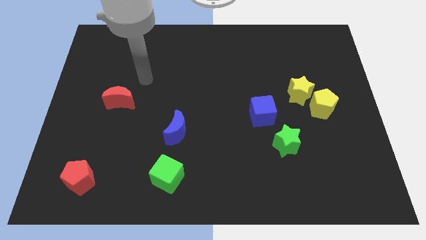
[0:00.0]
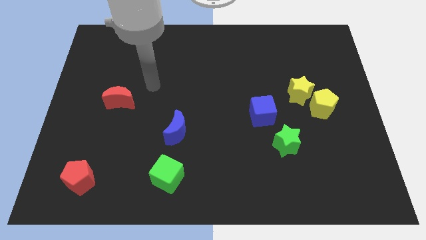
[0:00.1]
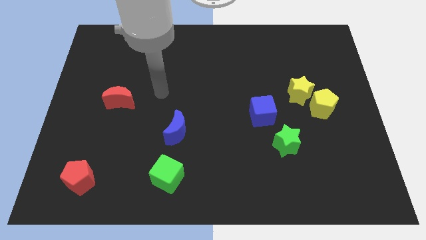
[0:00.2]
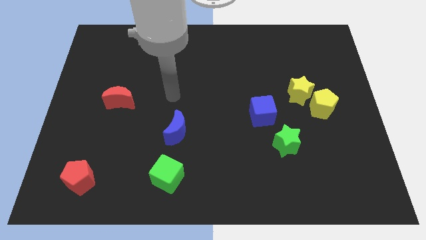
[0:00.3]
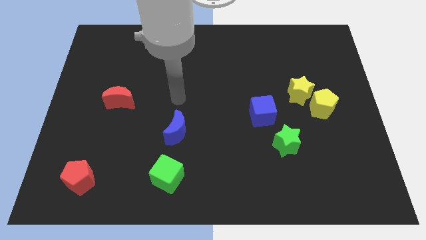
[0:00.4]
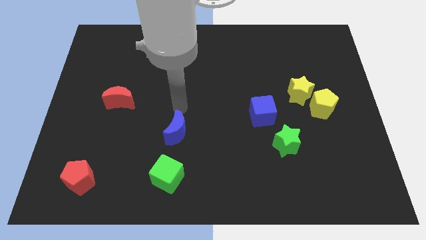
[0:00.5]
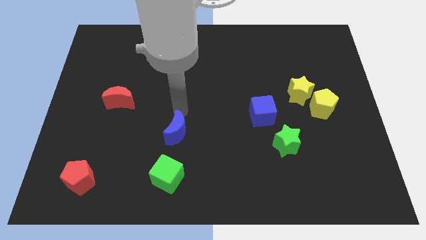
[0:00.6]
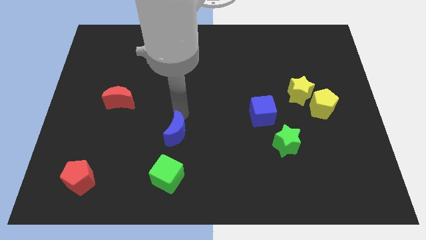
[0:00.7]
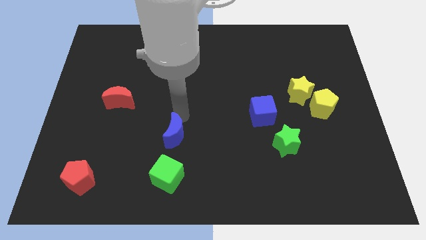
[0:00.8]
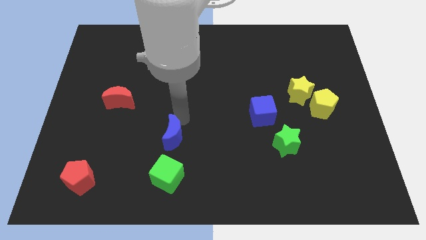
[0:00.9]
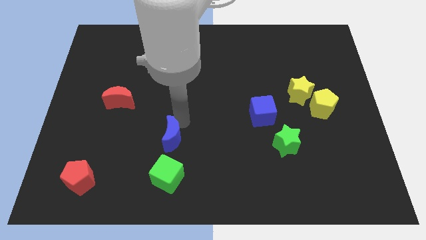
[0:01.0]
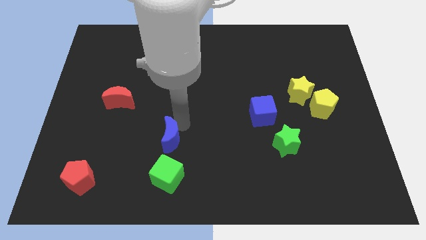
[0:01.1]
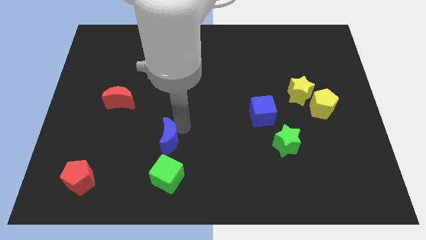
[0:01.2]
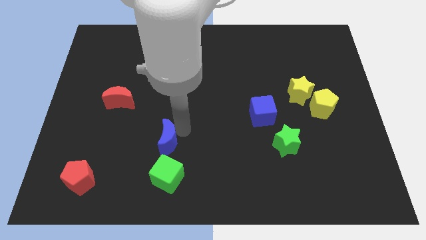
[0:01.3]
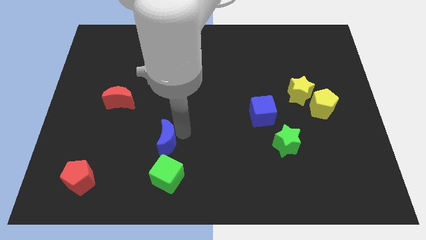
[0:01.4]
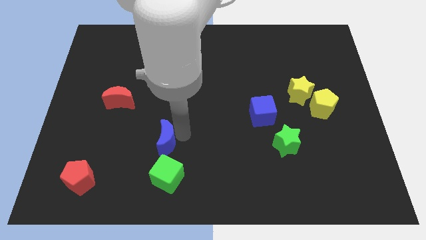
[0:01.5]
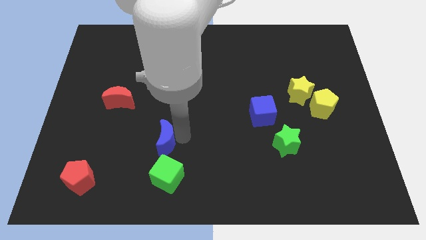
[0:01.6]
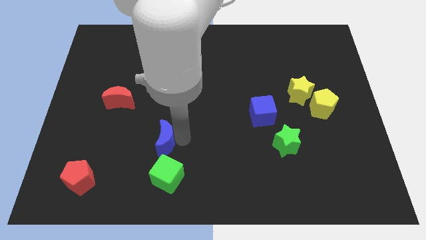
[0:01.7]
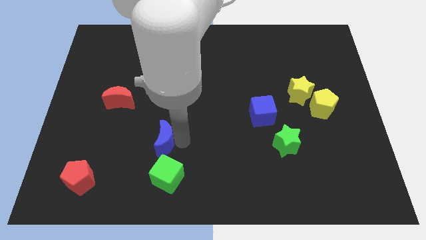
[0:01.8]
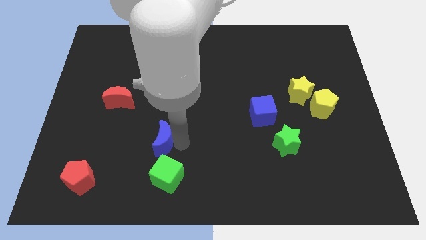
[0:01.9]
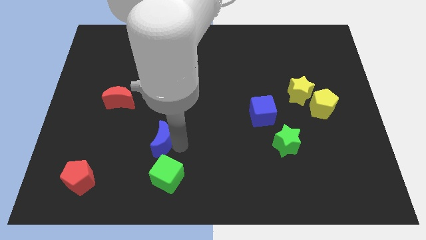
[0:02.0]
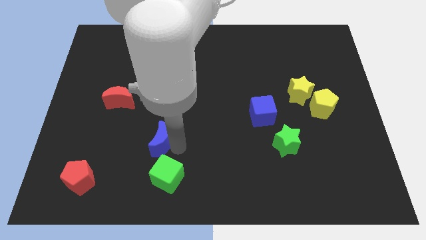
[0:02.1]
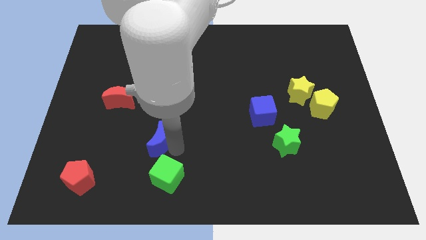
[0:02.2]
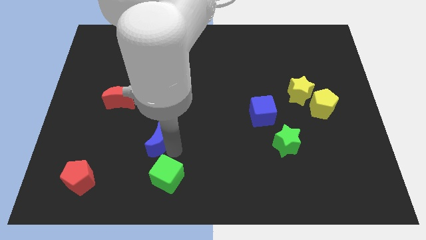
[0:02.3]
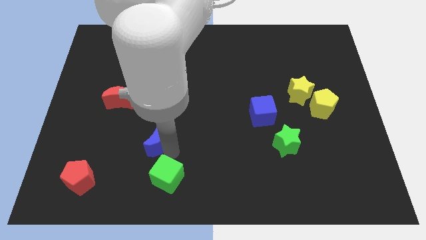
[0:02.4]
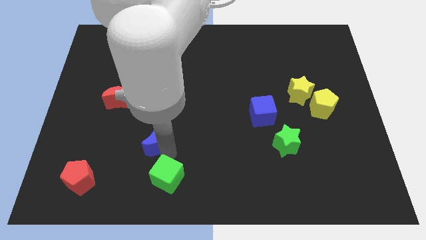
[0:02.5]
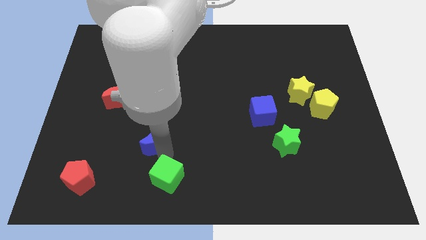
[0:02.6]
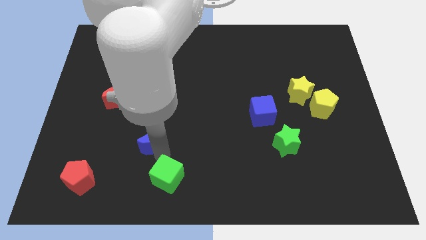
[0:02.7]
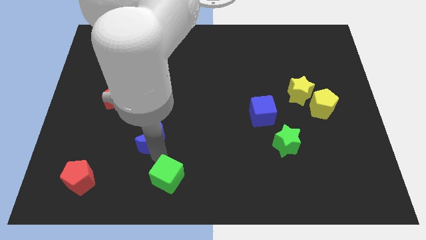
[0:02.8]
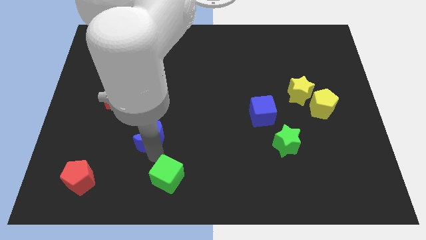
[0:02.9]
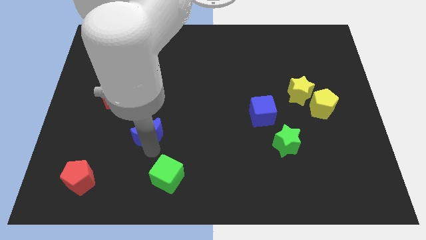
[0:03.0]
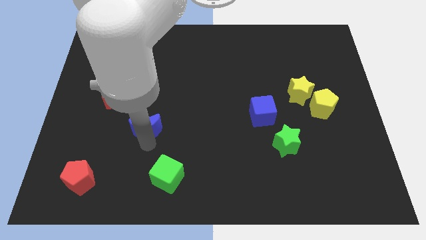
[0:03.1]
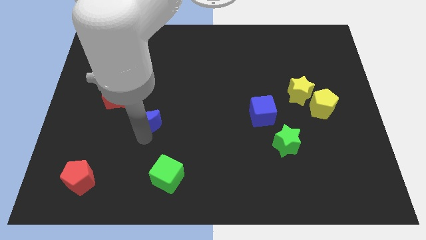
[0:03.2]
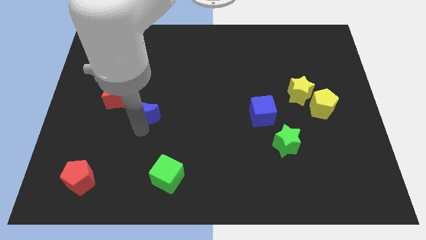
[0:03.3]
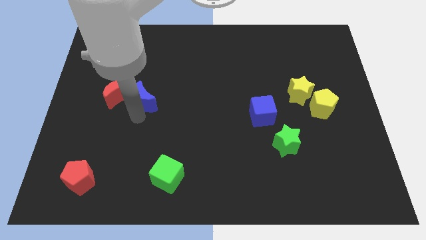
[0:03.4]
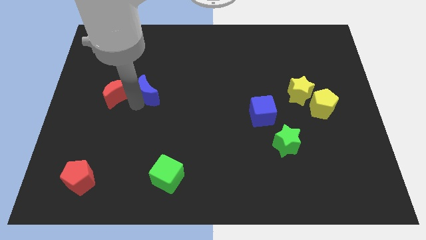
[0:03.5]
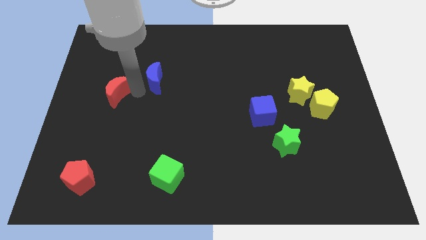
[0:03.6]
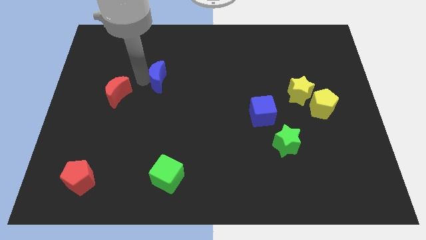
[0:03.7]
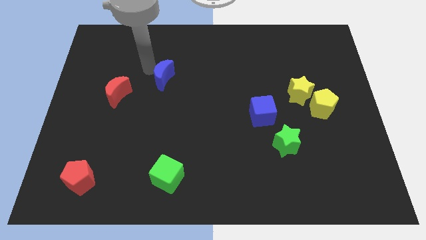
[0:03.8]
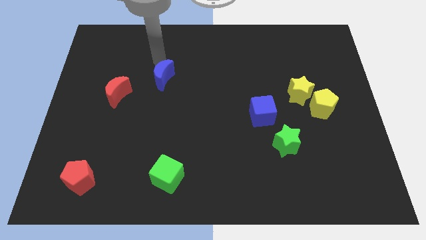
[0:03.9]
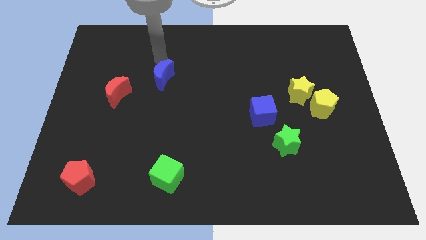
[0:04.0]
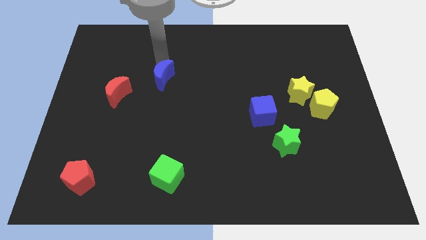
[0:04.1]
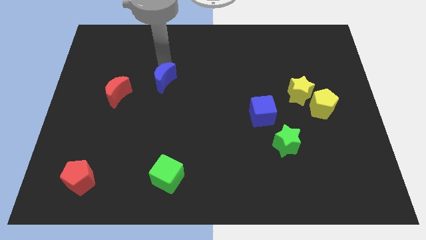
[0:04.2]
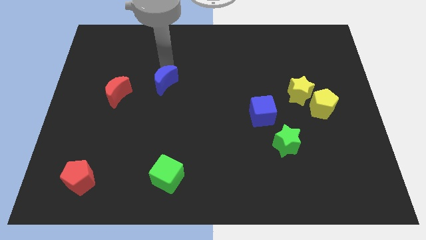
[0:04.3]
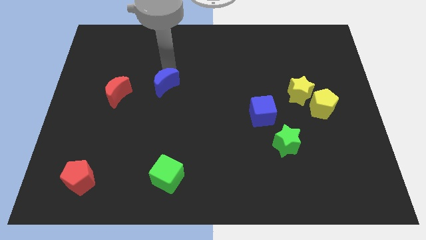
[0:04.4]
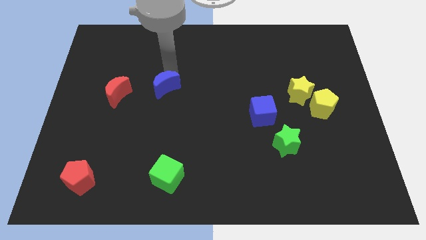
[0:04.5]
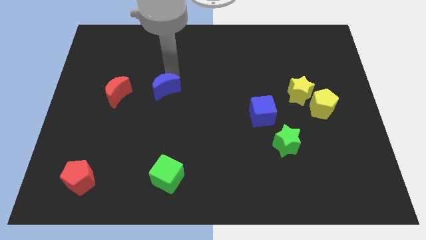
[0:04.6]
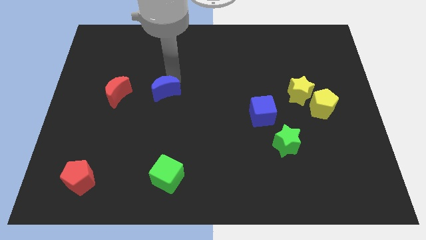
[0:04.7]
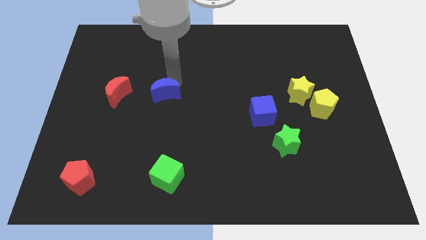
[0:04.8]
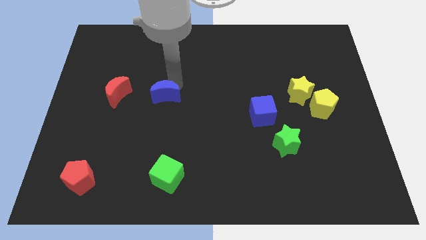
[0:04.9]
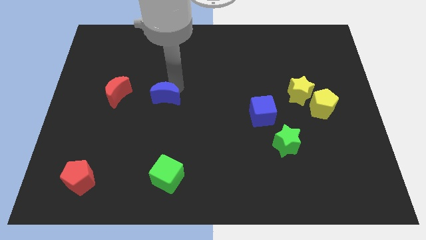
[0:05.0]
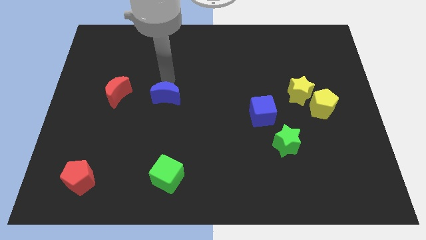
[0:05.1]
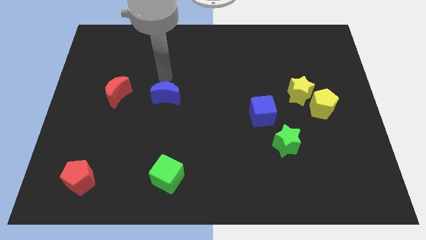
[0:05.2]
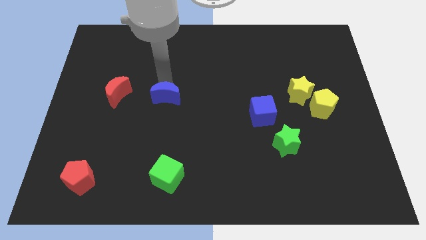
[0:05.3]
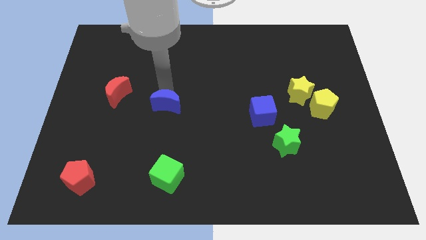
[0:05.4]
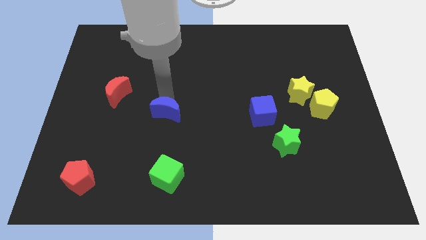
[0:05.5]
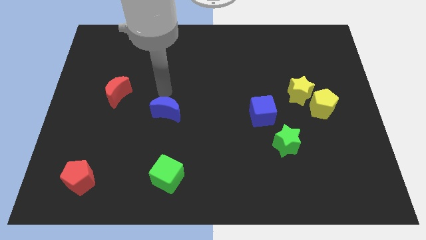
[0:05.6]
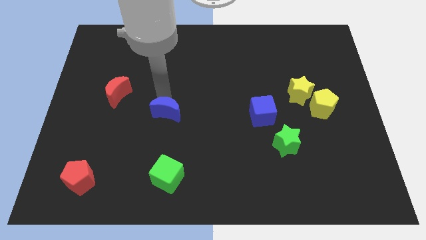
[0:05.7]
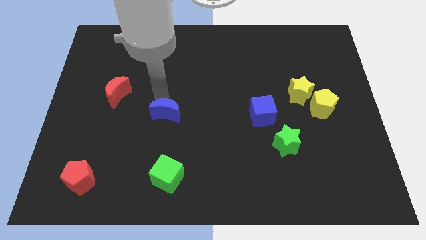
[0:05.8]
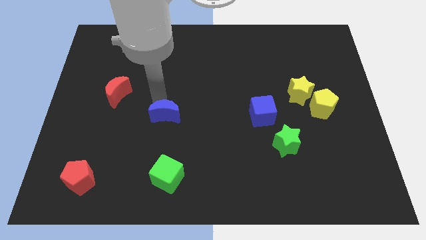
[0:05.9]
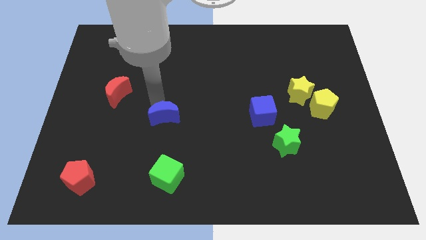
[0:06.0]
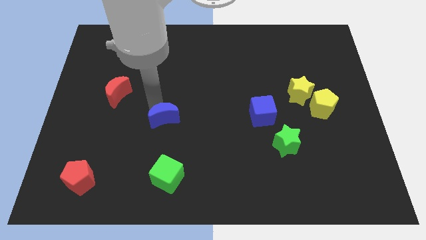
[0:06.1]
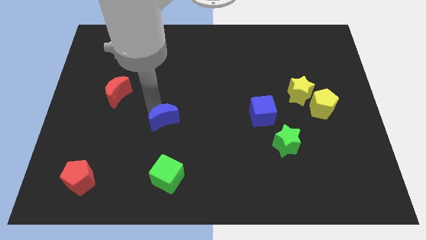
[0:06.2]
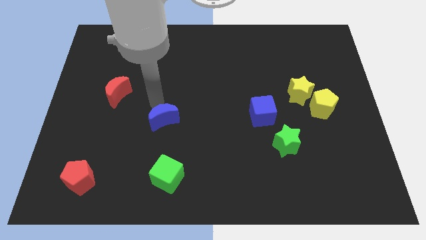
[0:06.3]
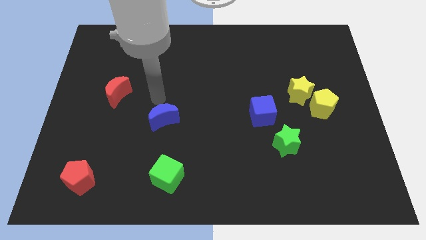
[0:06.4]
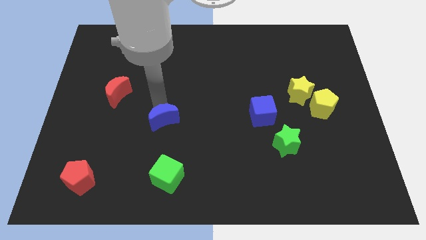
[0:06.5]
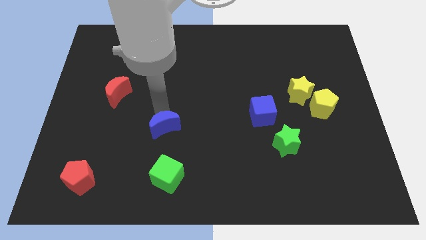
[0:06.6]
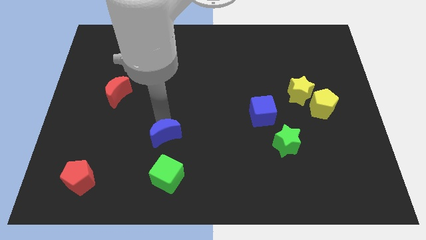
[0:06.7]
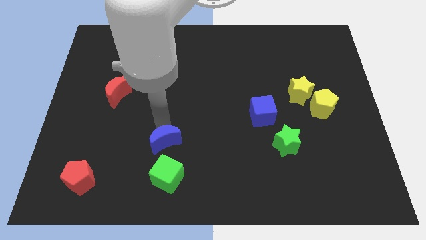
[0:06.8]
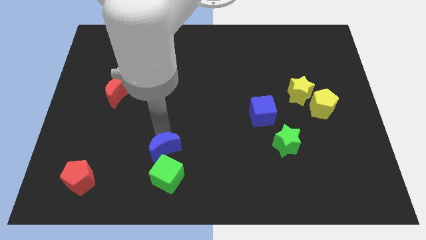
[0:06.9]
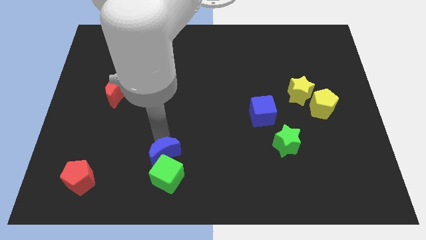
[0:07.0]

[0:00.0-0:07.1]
move the blue moon close to the green cube

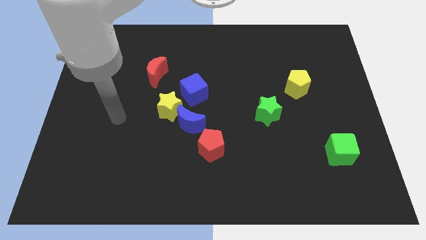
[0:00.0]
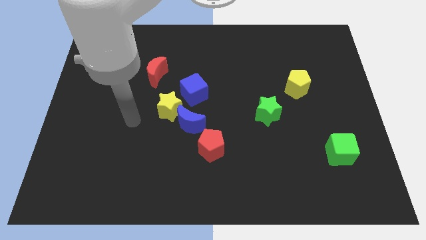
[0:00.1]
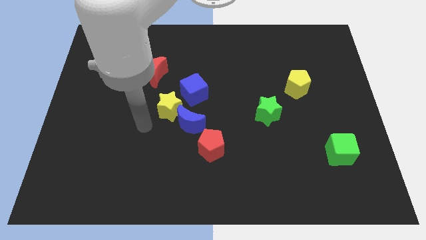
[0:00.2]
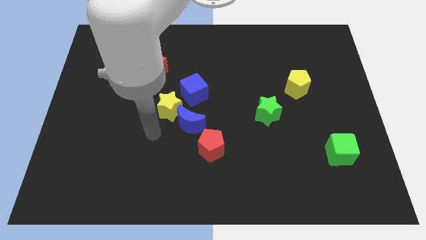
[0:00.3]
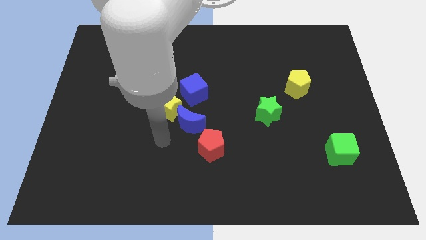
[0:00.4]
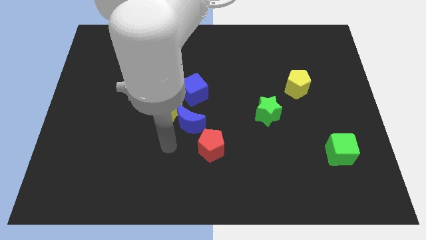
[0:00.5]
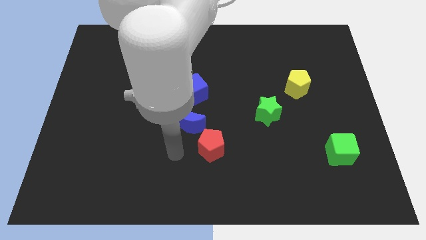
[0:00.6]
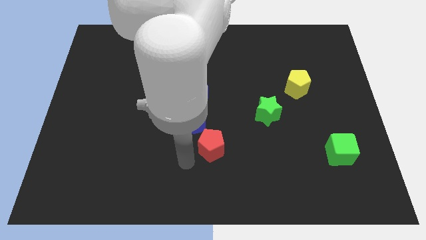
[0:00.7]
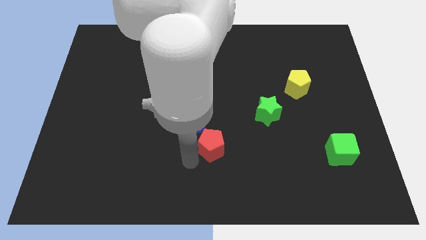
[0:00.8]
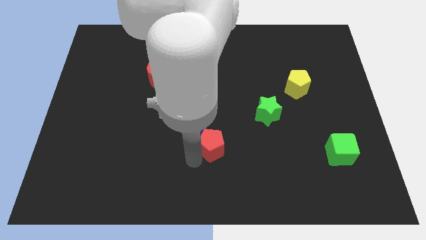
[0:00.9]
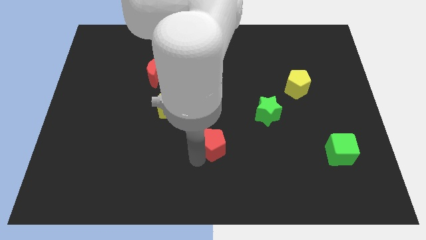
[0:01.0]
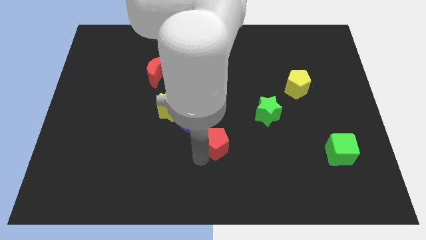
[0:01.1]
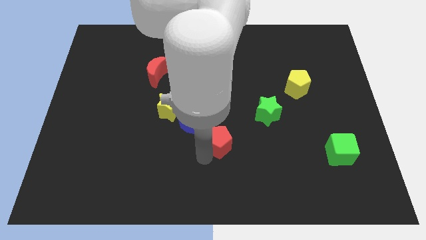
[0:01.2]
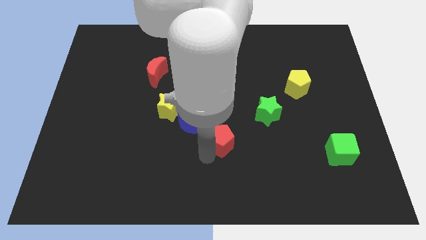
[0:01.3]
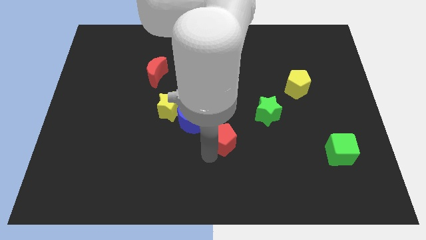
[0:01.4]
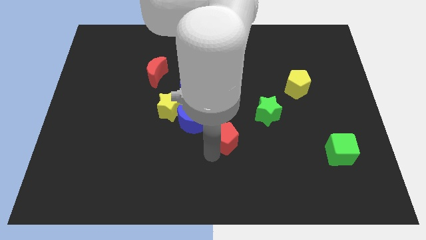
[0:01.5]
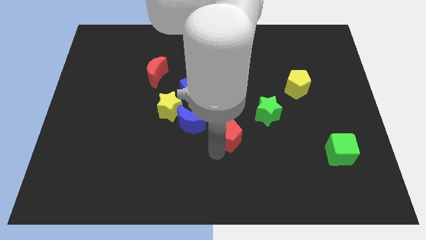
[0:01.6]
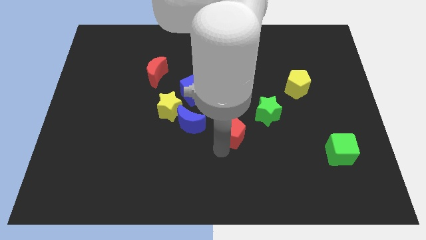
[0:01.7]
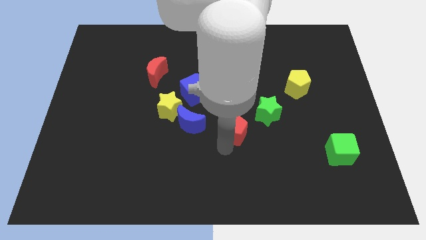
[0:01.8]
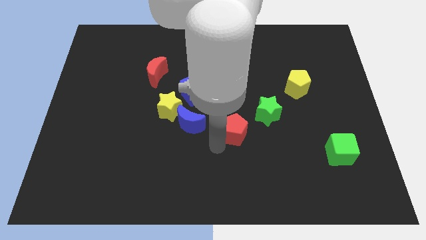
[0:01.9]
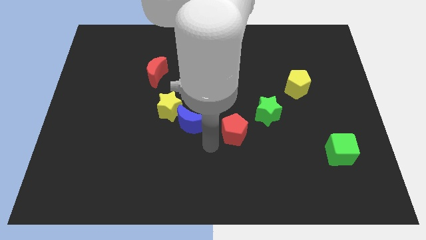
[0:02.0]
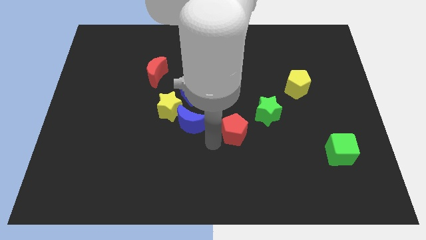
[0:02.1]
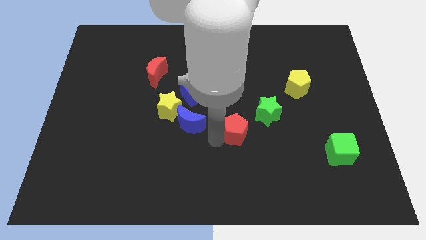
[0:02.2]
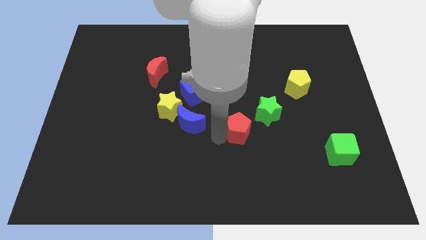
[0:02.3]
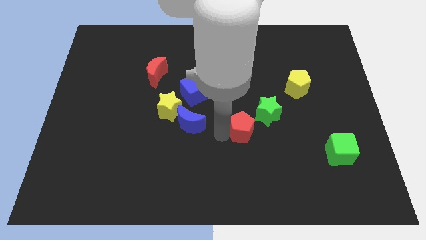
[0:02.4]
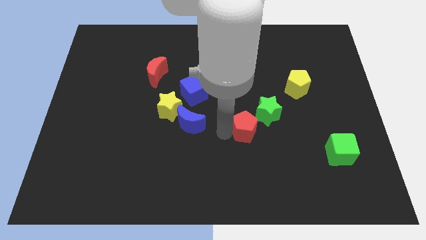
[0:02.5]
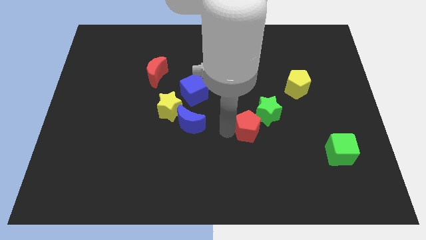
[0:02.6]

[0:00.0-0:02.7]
move the red pentagon close to the green star
